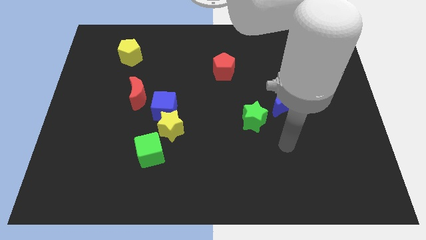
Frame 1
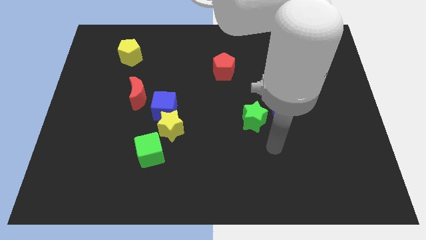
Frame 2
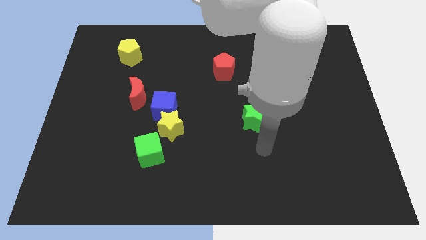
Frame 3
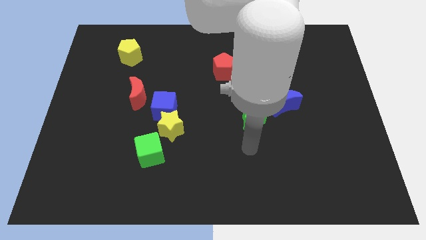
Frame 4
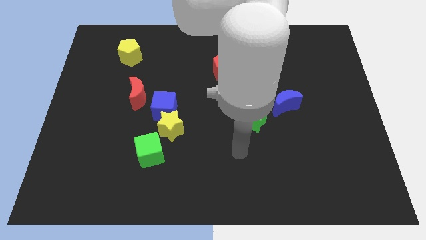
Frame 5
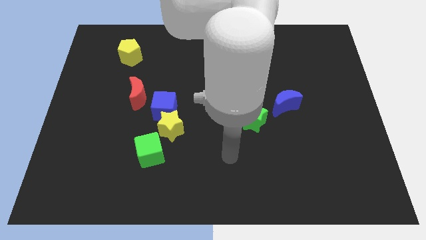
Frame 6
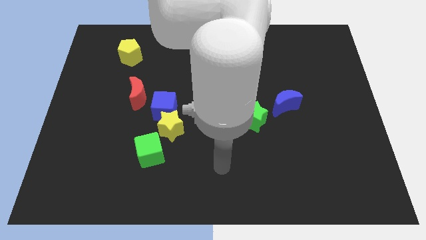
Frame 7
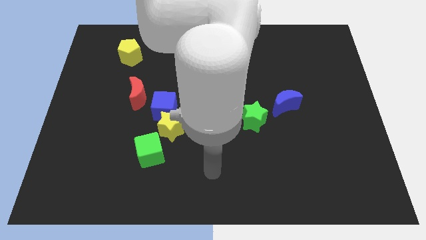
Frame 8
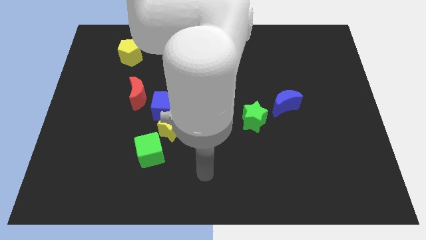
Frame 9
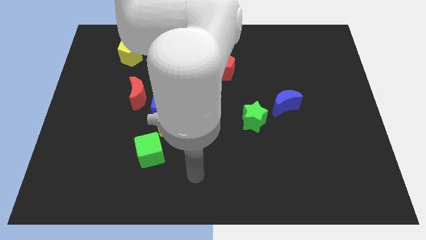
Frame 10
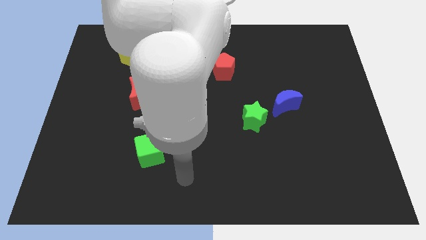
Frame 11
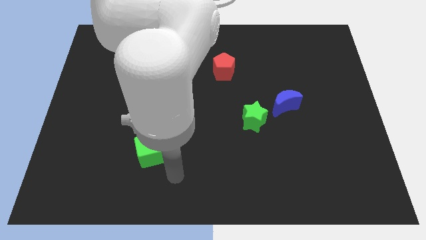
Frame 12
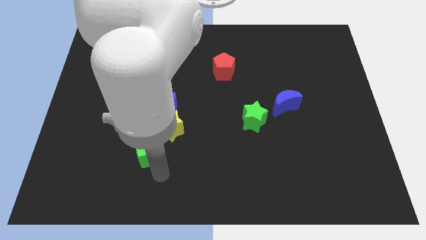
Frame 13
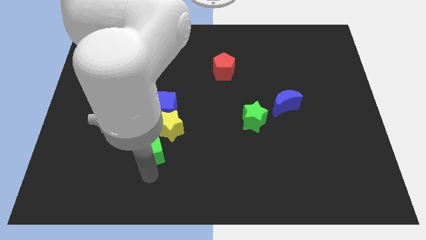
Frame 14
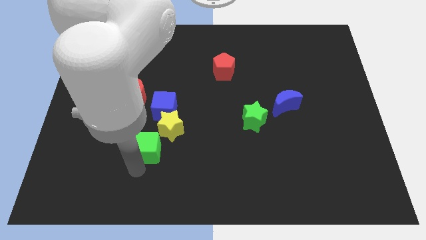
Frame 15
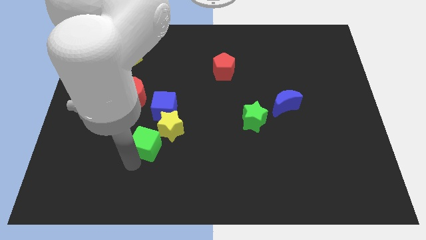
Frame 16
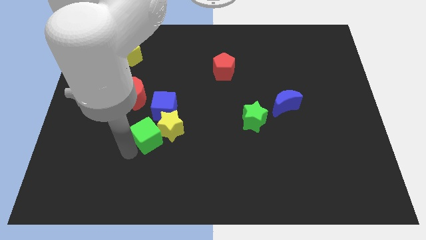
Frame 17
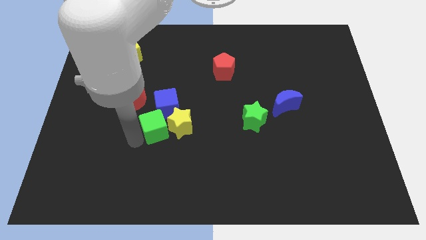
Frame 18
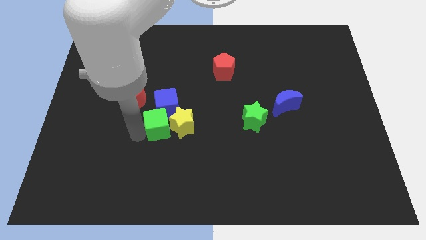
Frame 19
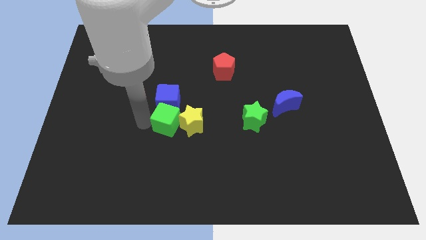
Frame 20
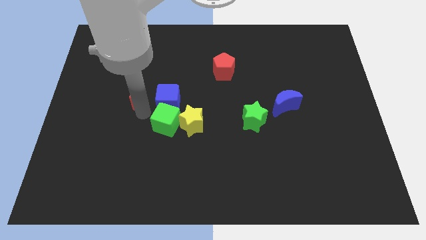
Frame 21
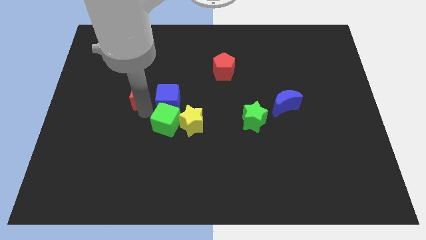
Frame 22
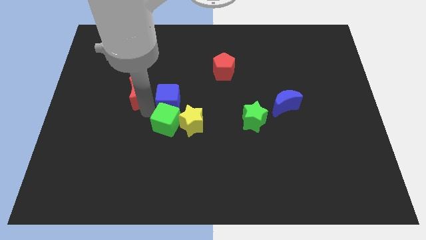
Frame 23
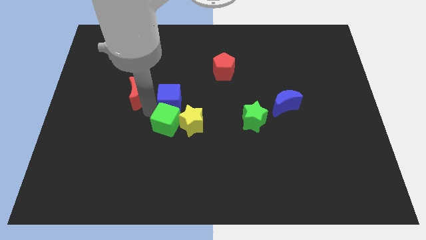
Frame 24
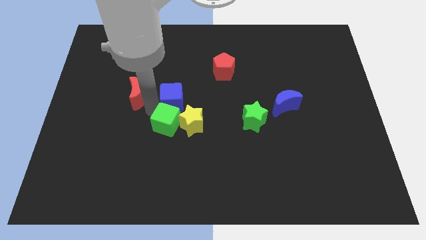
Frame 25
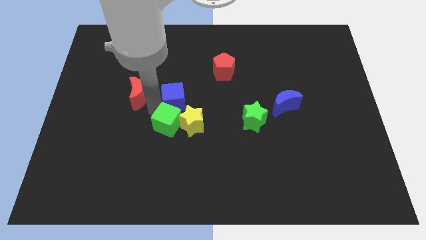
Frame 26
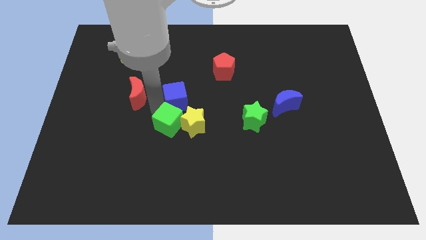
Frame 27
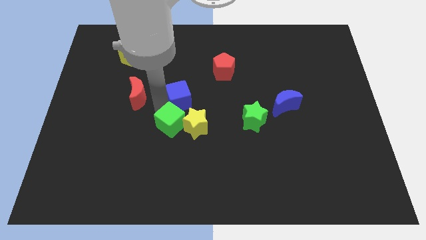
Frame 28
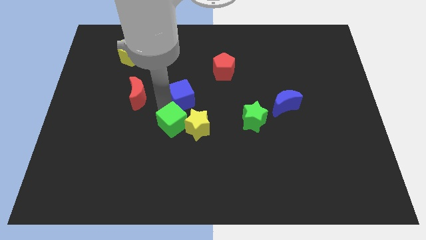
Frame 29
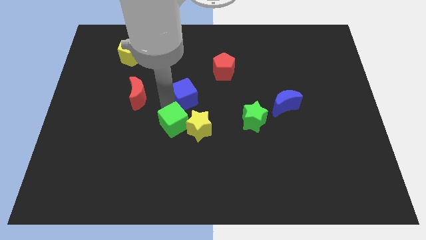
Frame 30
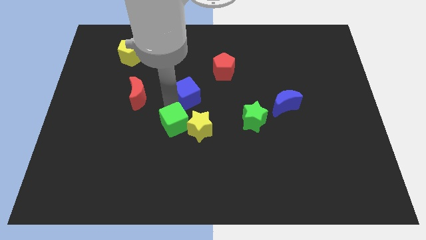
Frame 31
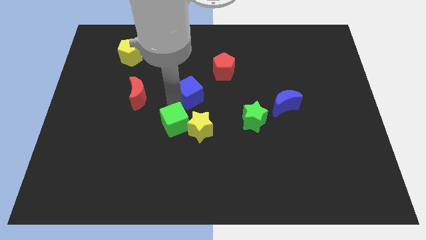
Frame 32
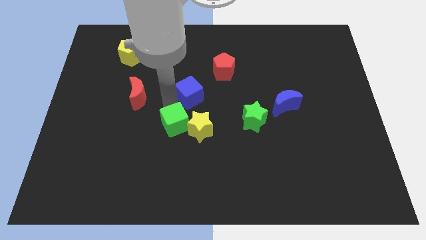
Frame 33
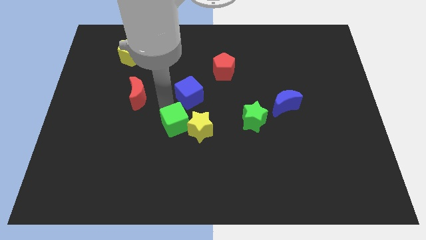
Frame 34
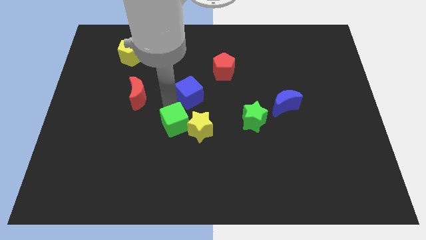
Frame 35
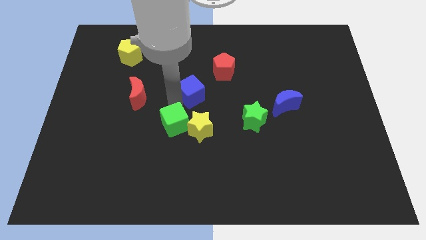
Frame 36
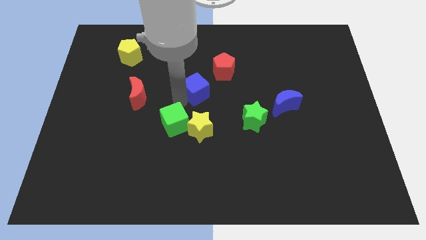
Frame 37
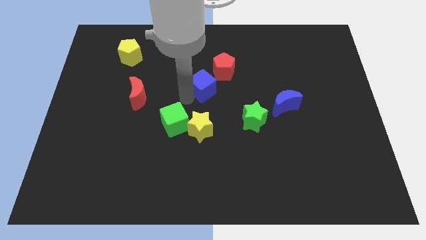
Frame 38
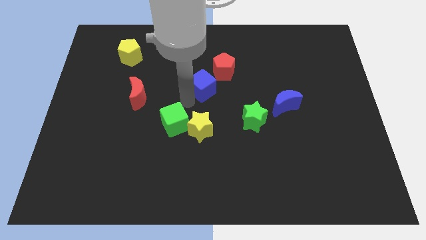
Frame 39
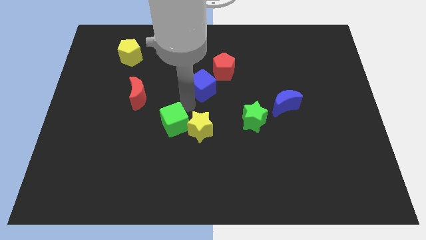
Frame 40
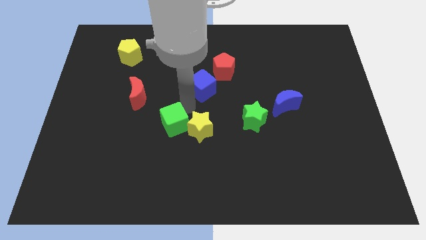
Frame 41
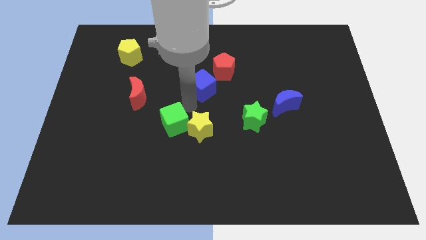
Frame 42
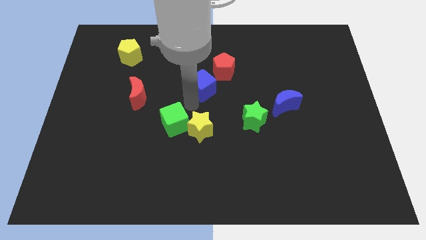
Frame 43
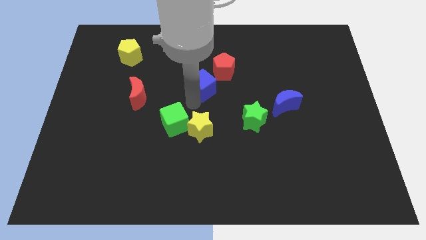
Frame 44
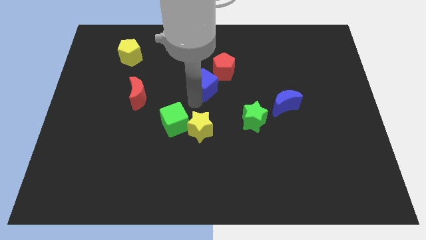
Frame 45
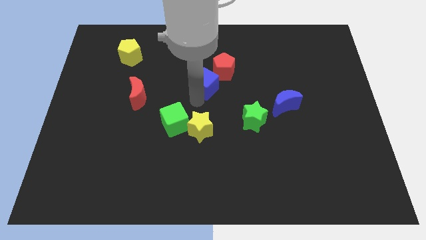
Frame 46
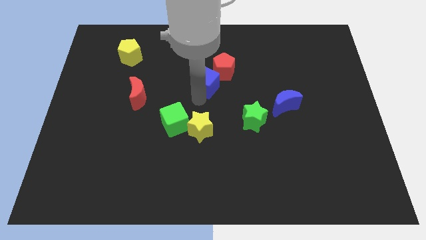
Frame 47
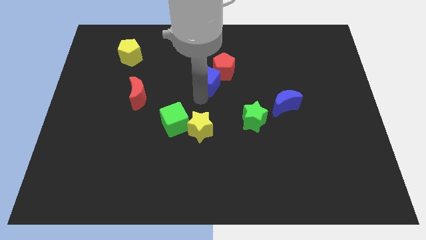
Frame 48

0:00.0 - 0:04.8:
push the blue cube towards the red pentagon

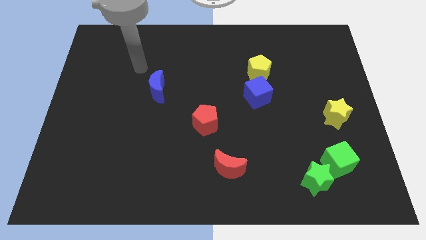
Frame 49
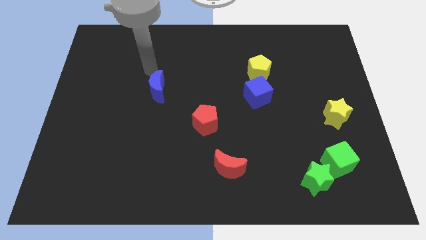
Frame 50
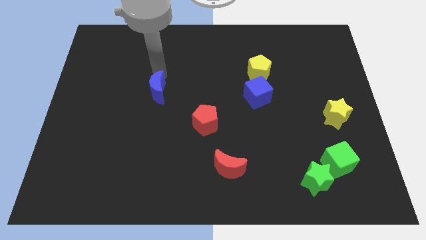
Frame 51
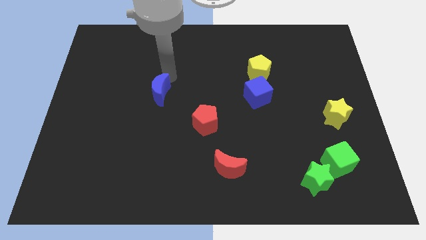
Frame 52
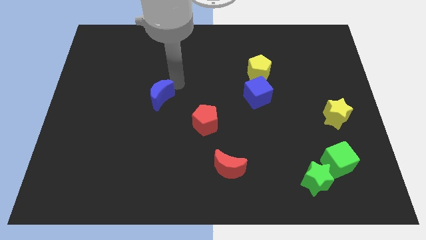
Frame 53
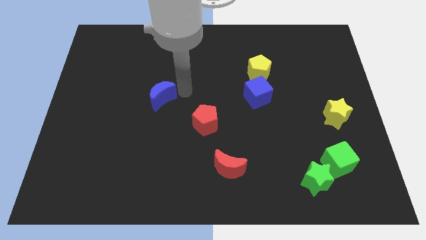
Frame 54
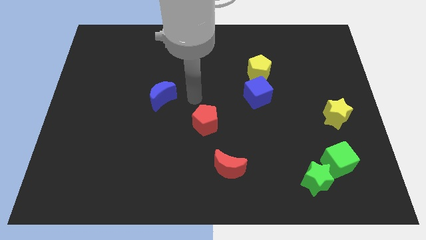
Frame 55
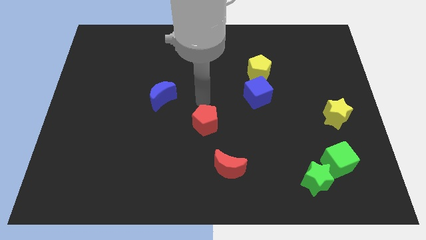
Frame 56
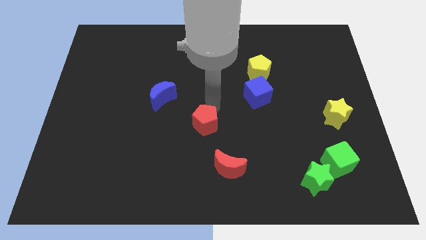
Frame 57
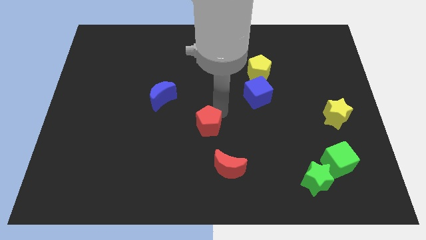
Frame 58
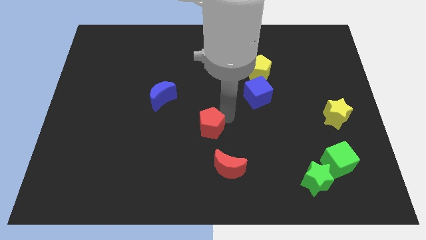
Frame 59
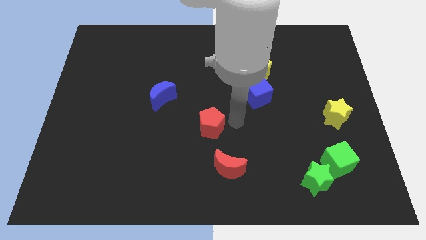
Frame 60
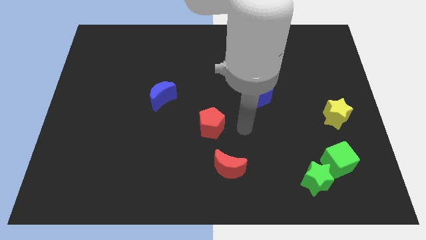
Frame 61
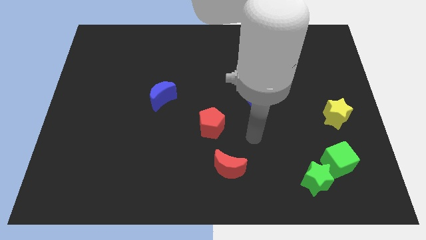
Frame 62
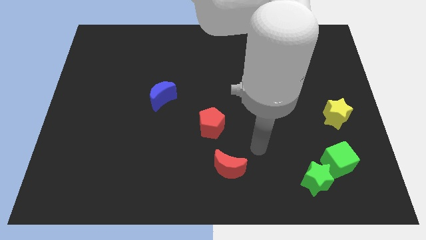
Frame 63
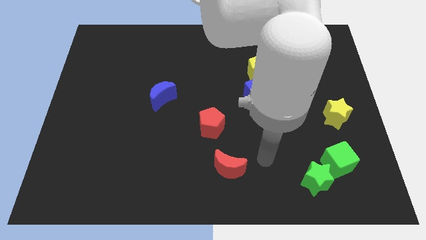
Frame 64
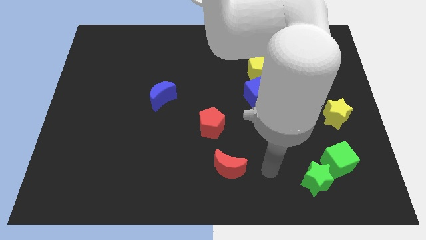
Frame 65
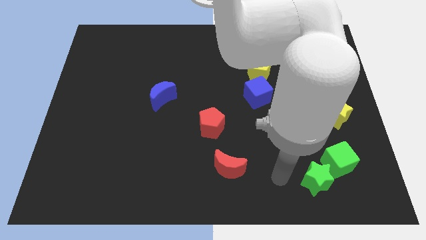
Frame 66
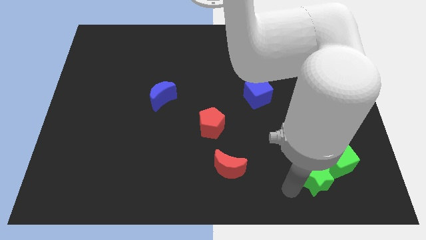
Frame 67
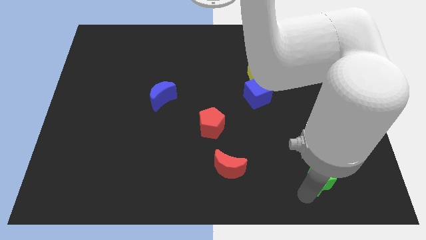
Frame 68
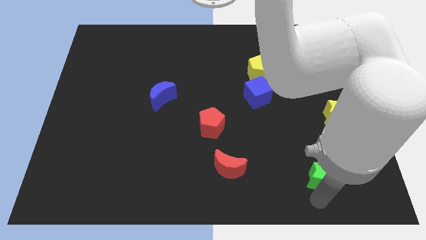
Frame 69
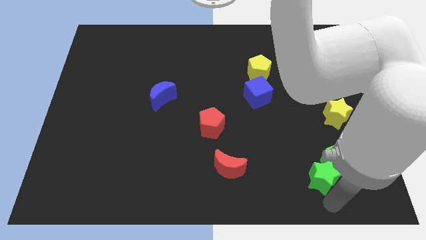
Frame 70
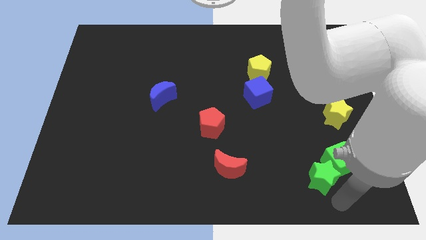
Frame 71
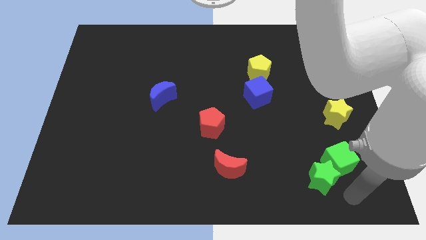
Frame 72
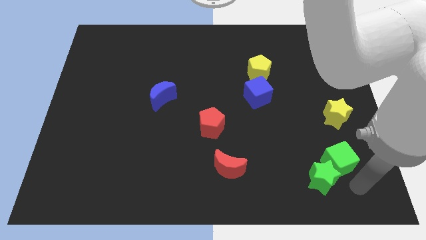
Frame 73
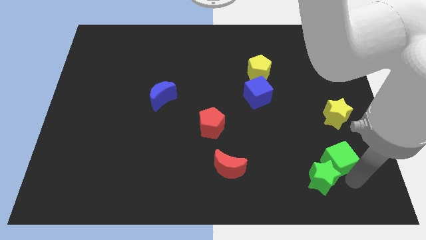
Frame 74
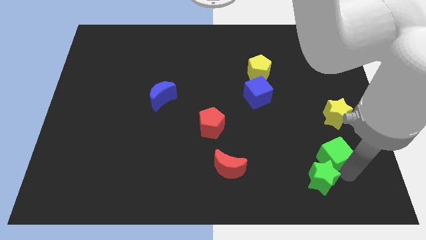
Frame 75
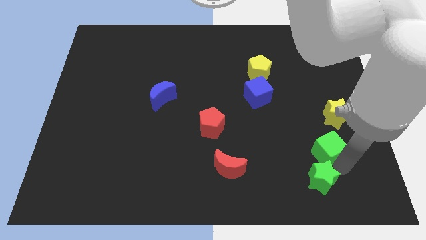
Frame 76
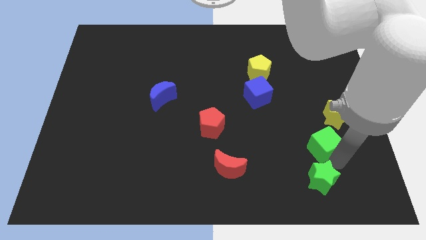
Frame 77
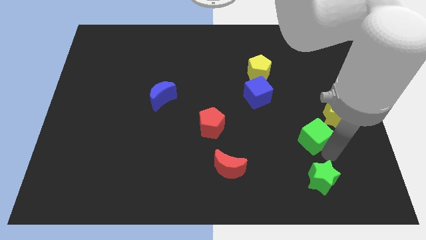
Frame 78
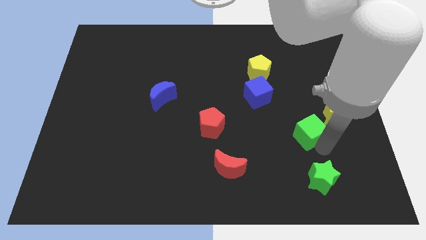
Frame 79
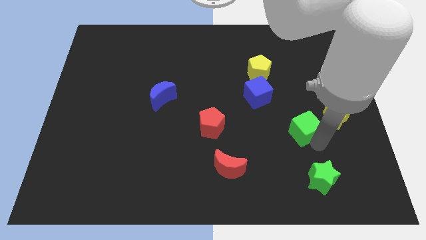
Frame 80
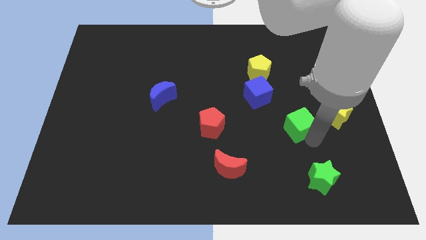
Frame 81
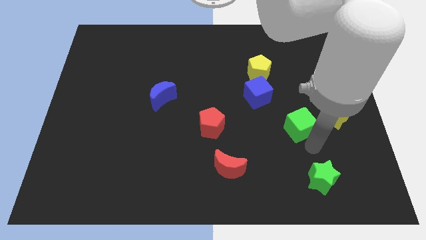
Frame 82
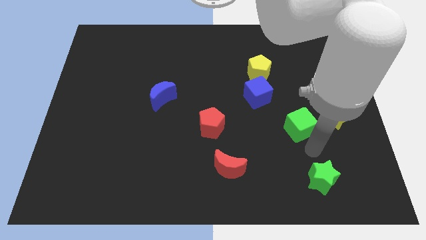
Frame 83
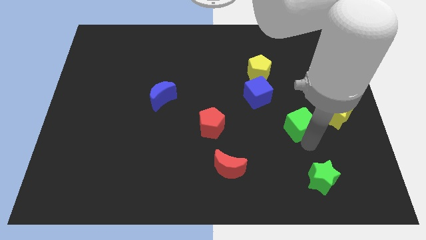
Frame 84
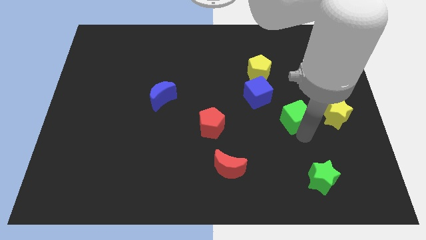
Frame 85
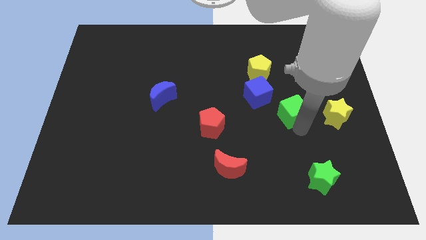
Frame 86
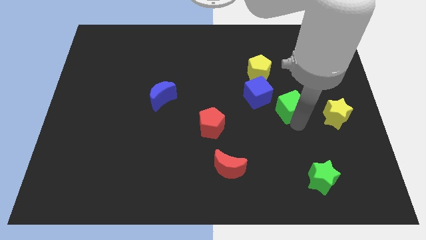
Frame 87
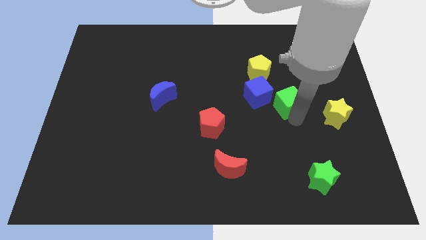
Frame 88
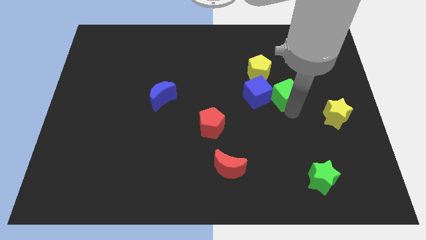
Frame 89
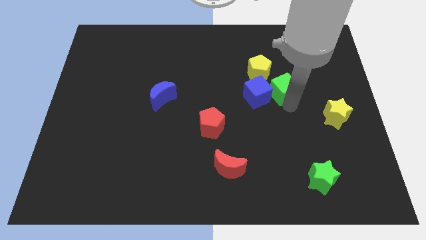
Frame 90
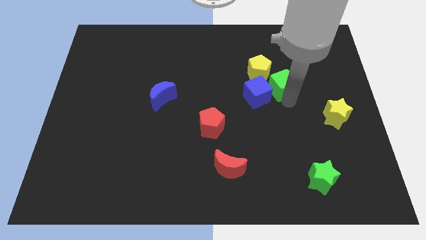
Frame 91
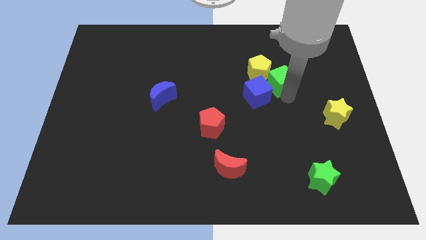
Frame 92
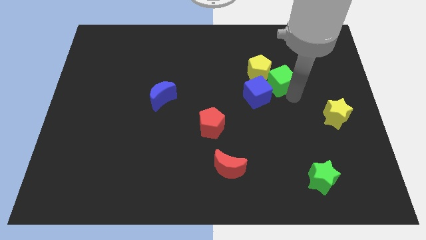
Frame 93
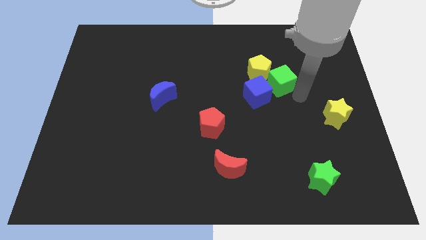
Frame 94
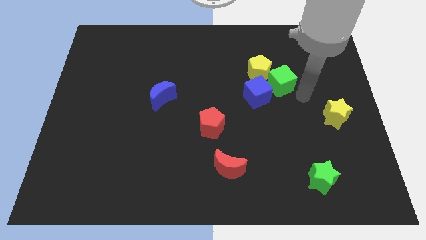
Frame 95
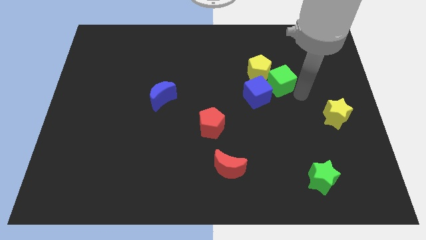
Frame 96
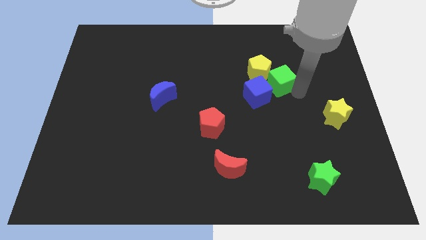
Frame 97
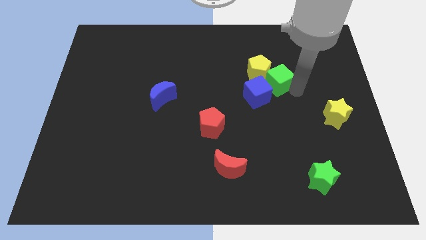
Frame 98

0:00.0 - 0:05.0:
push the green cube close to the yellow pentagon
